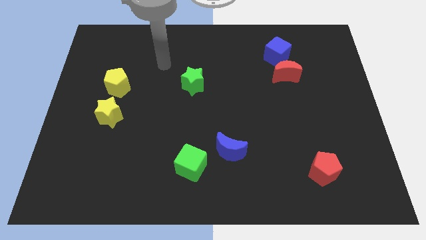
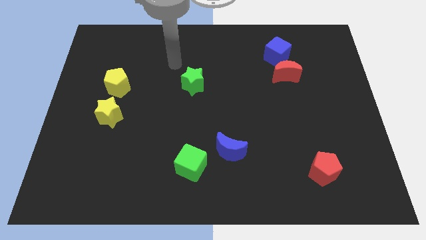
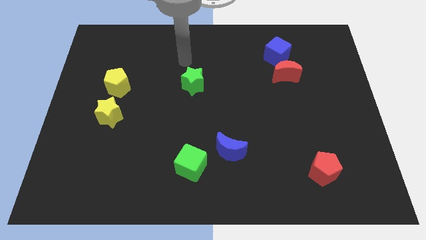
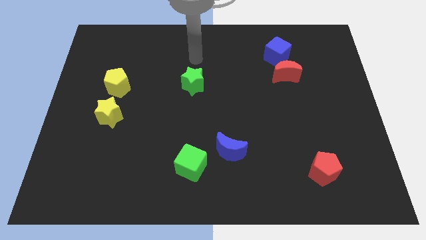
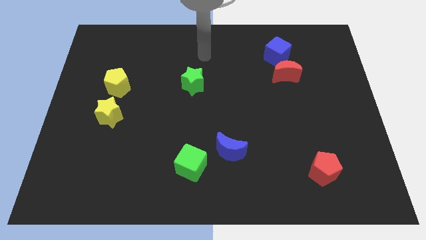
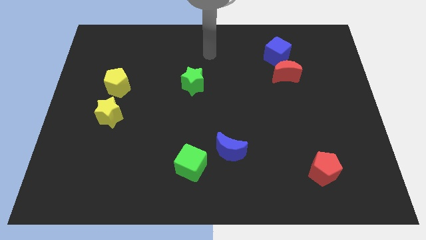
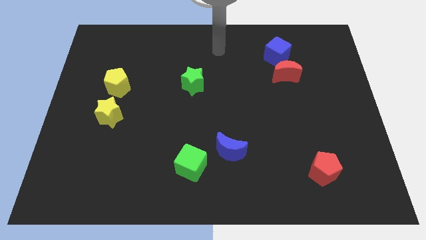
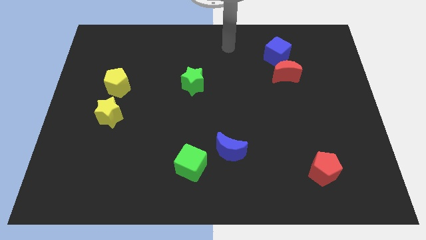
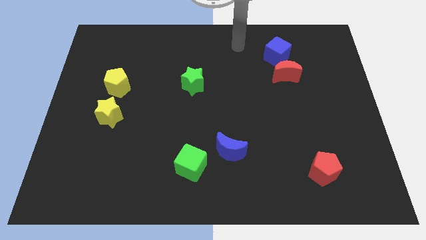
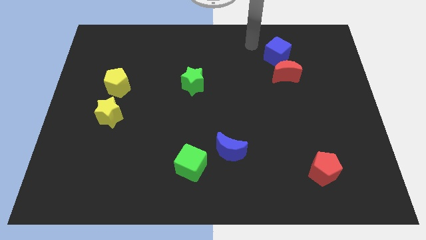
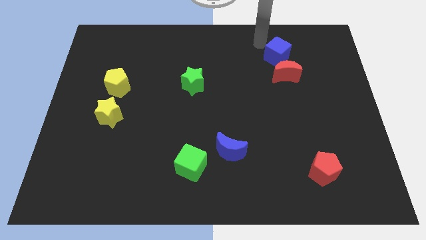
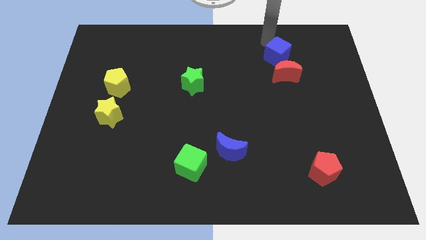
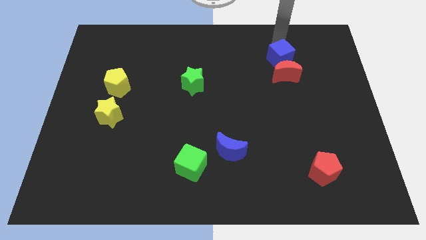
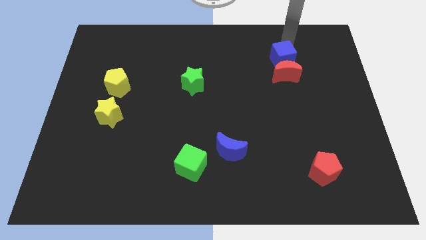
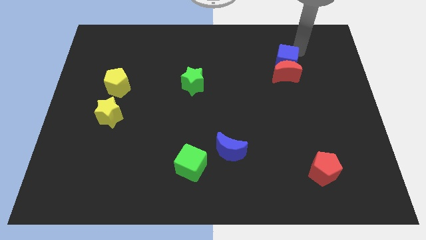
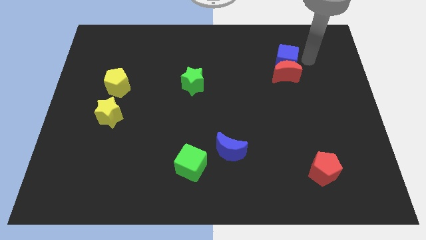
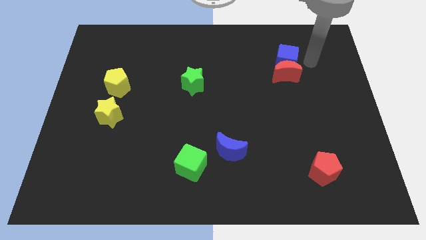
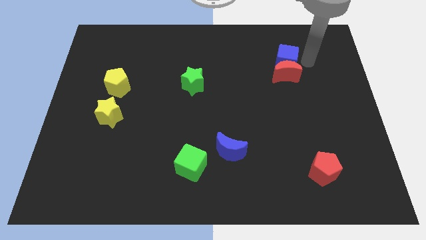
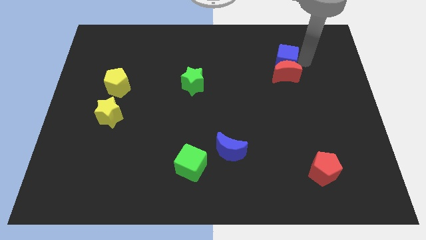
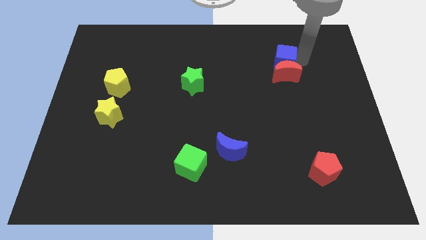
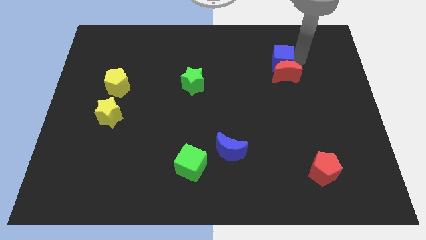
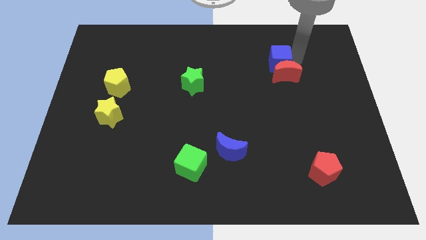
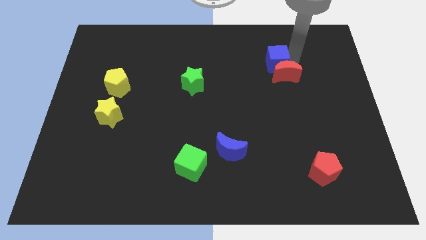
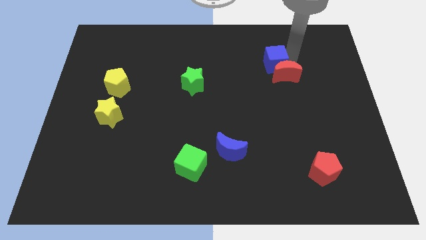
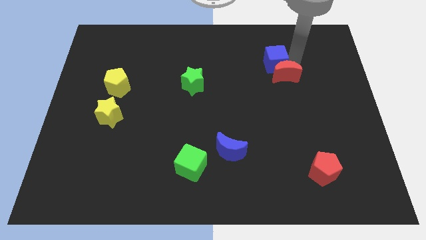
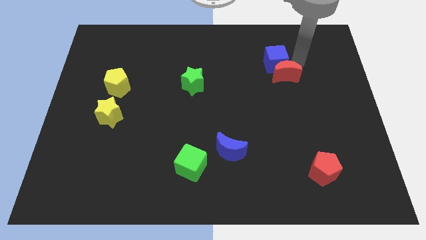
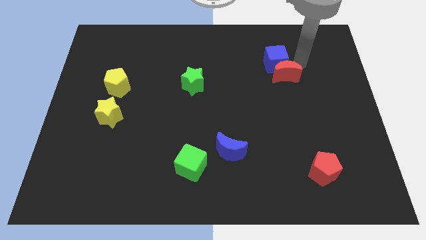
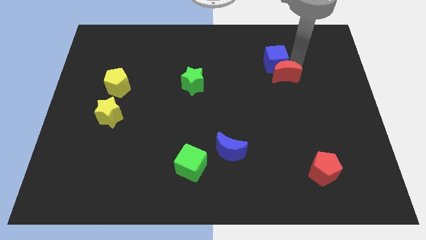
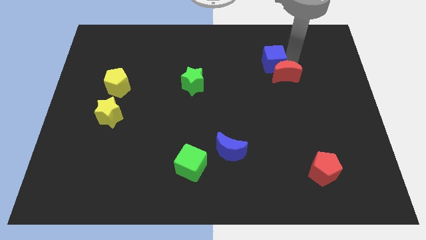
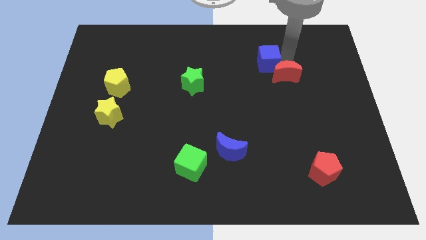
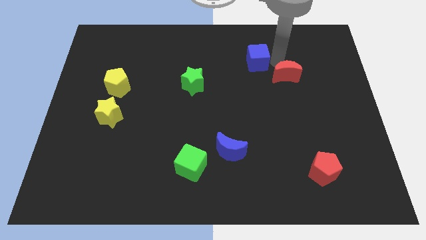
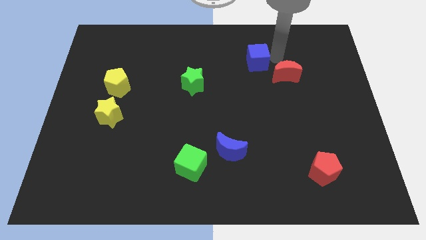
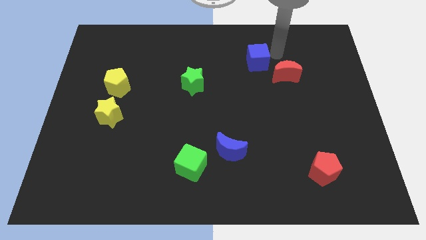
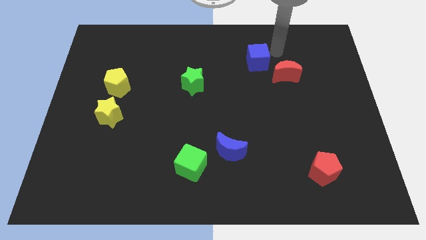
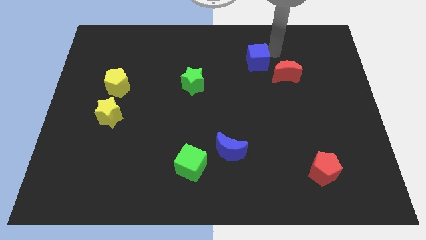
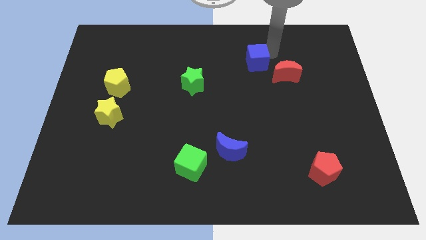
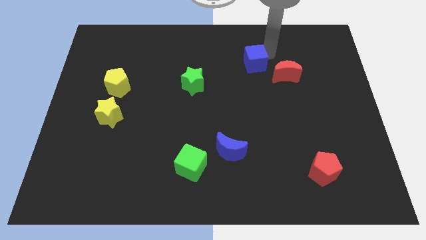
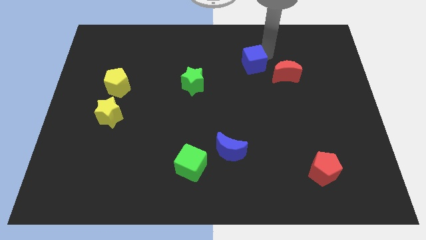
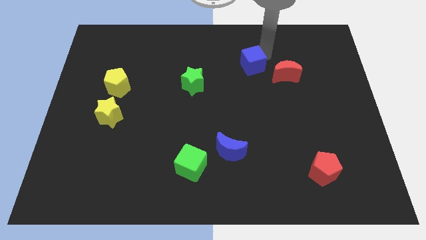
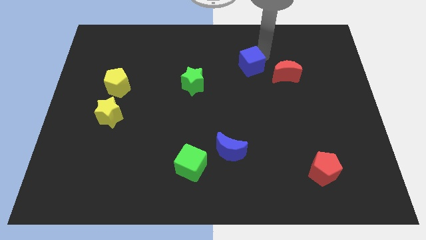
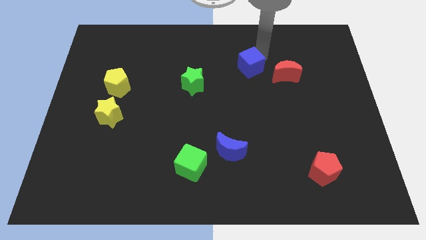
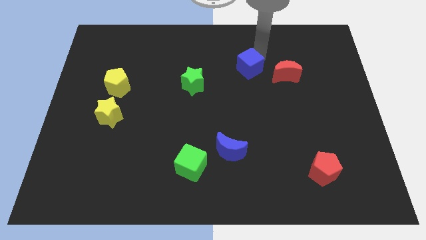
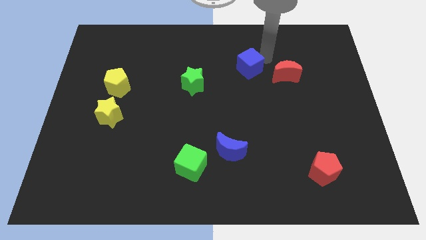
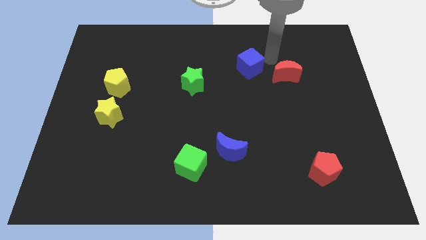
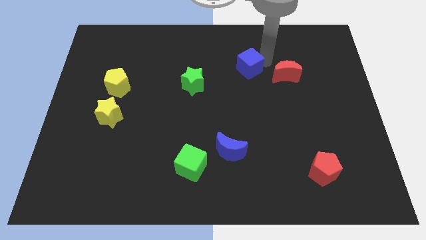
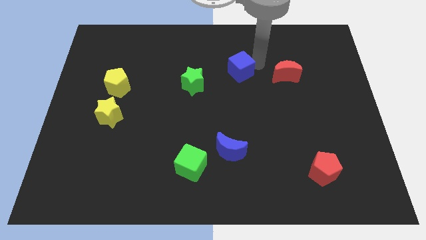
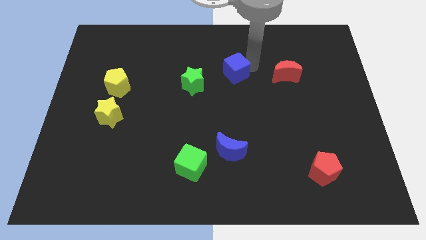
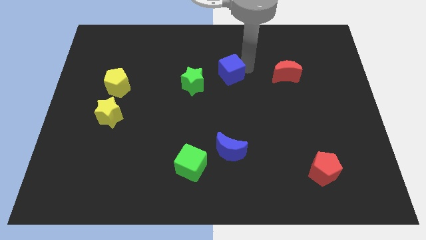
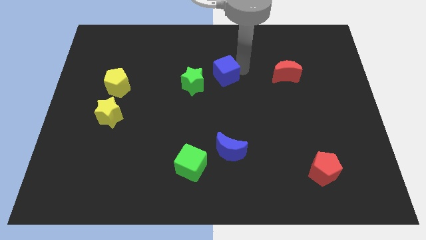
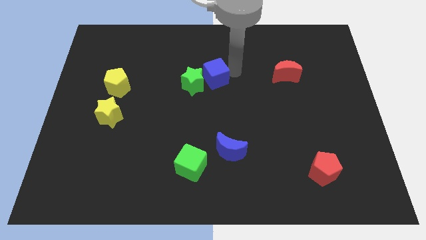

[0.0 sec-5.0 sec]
slide the blue cube next to the green star

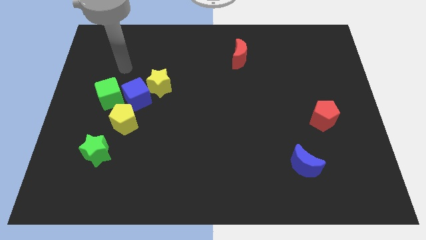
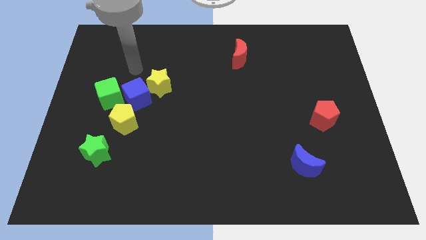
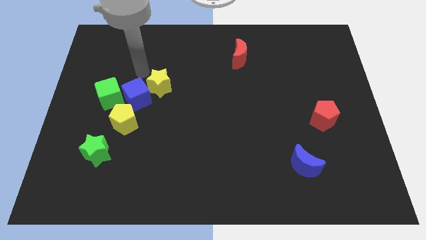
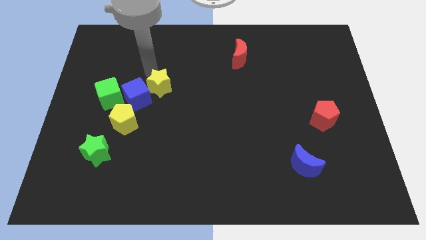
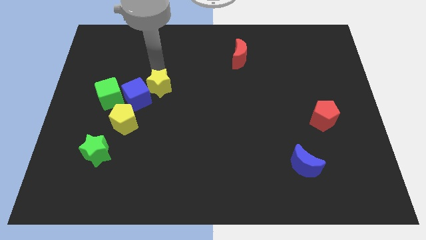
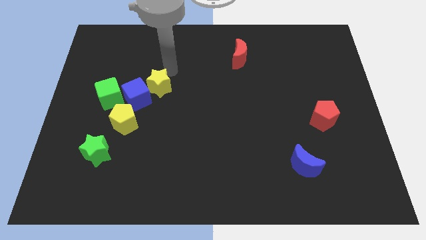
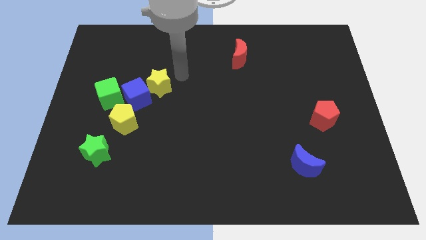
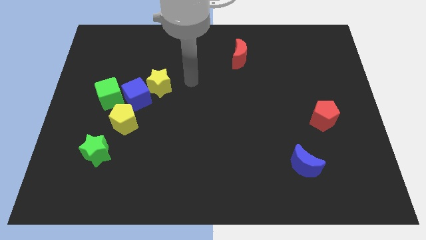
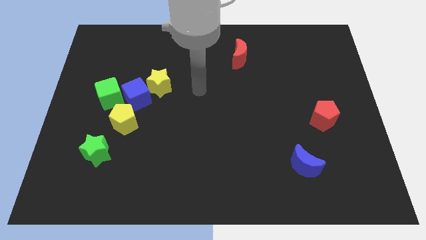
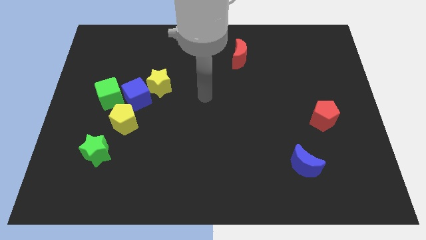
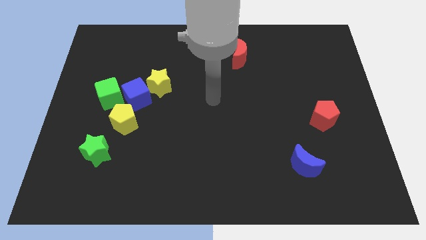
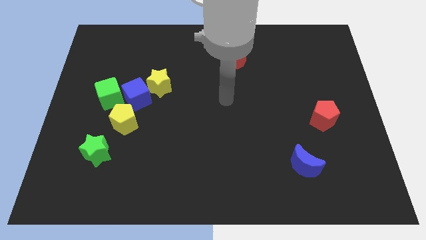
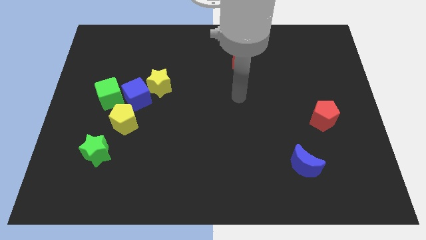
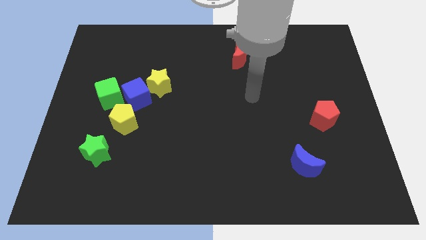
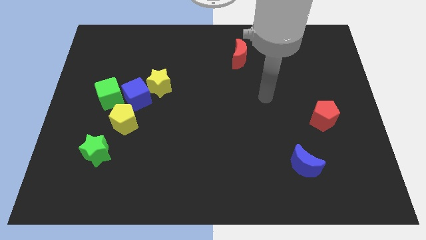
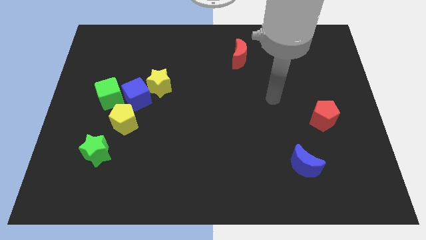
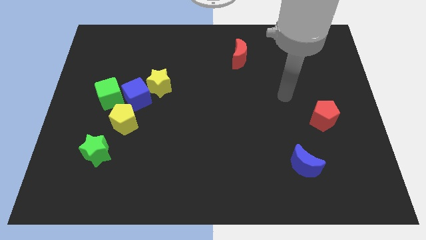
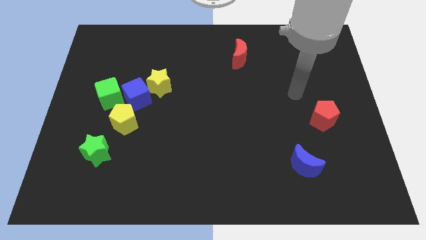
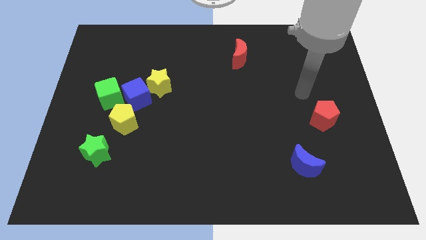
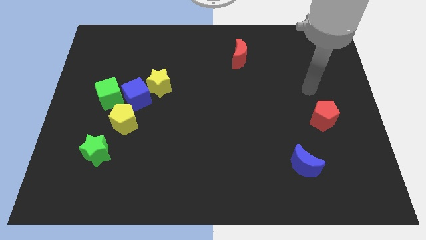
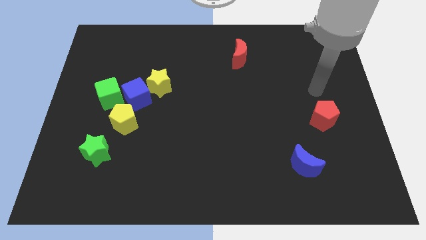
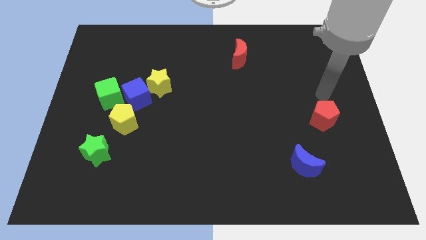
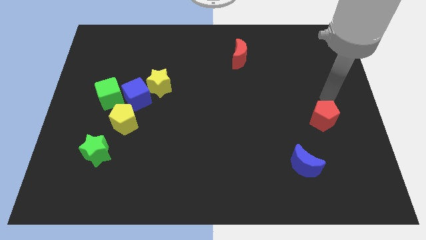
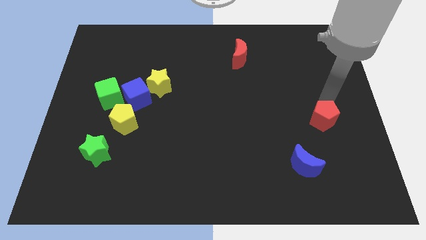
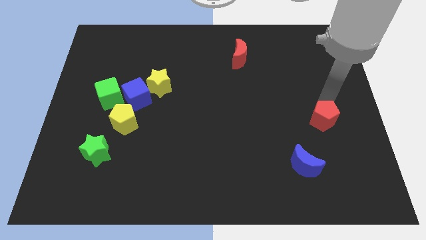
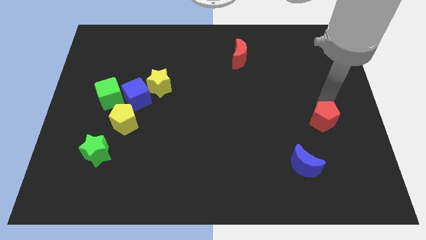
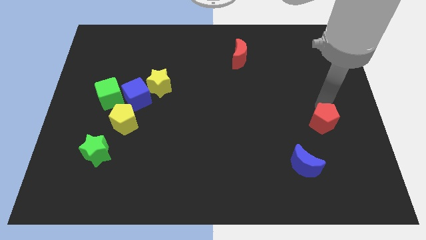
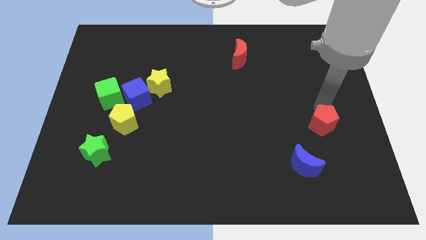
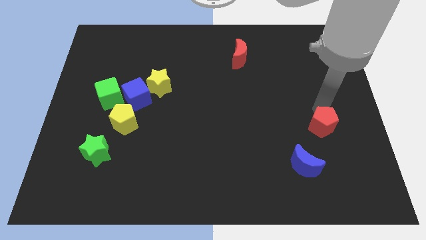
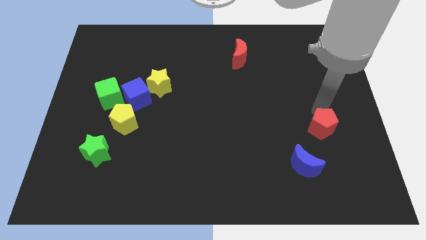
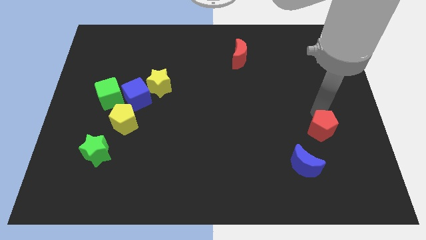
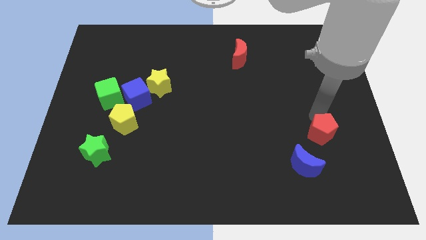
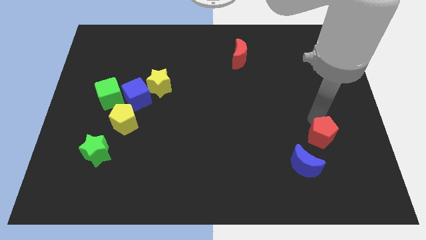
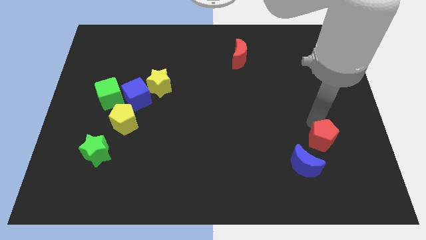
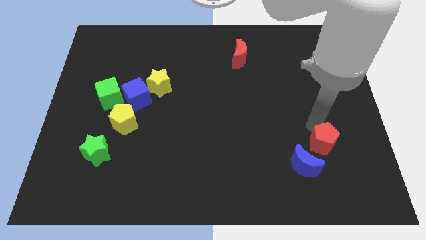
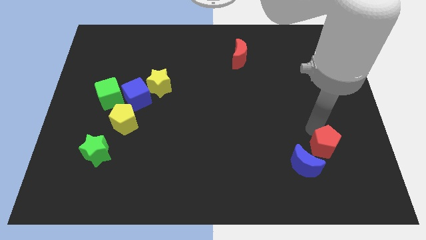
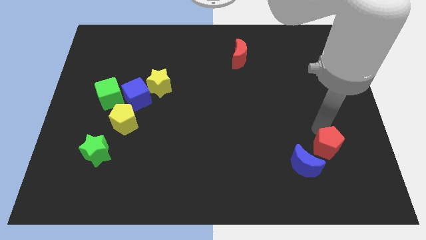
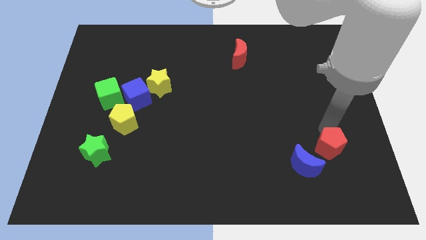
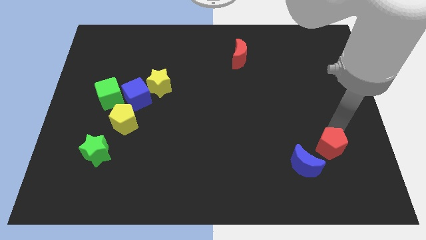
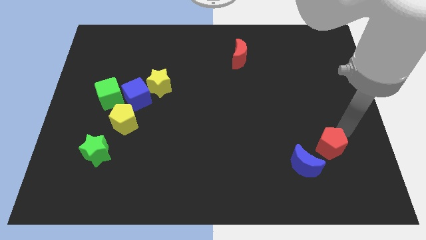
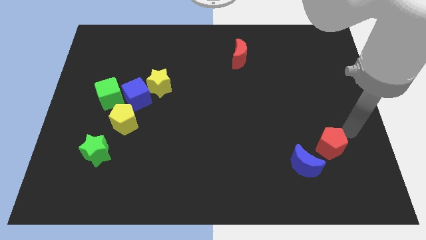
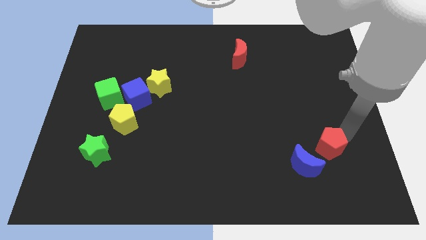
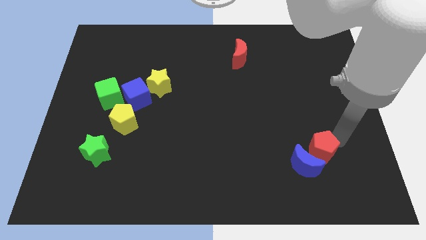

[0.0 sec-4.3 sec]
slide the red pentagon next to the blue moon
